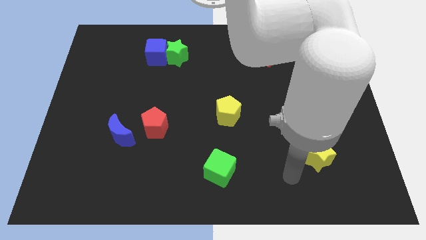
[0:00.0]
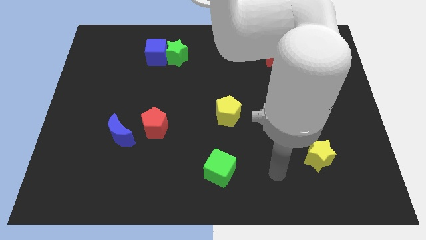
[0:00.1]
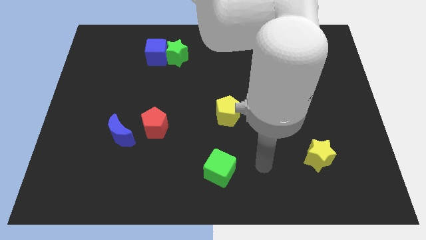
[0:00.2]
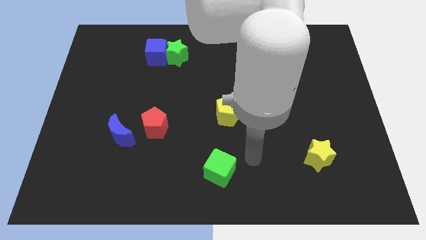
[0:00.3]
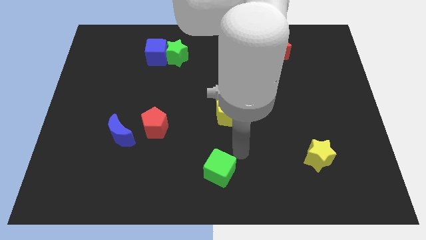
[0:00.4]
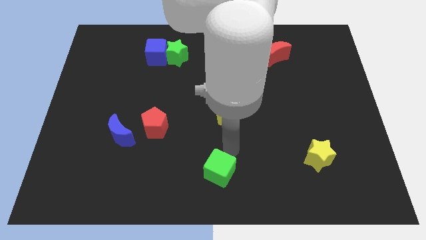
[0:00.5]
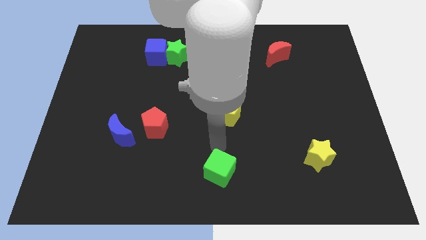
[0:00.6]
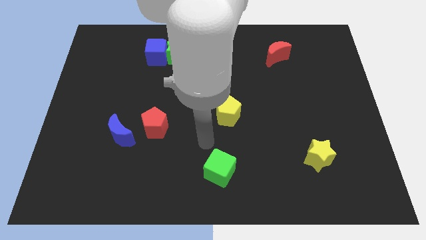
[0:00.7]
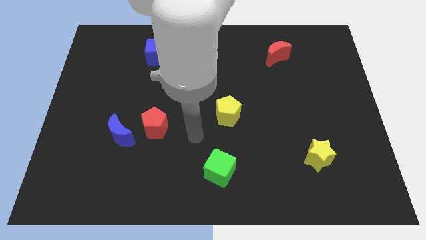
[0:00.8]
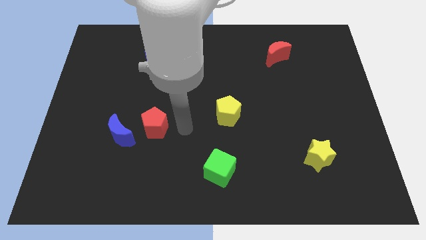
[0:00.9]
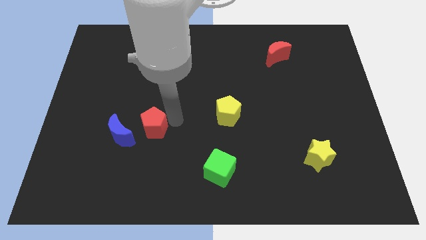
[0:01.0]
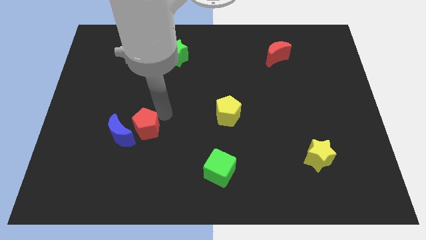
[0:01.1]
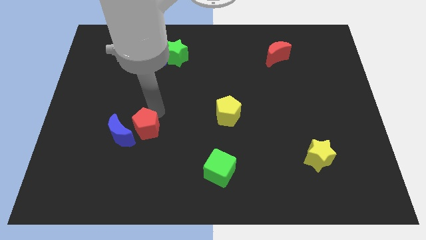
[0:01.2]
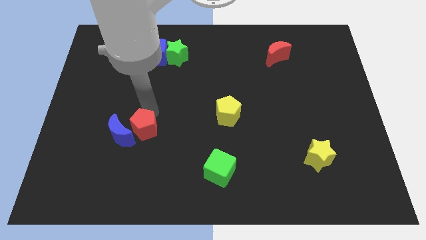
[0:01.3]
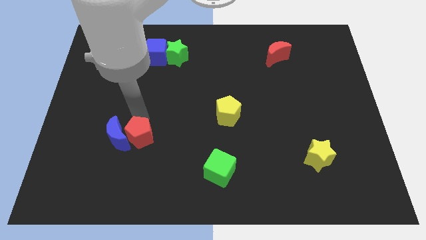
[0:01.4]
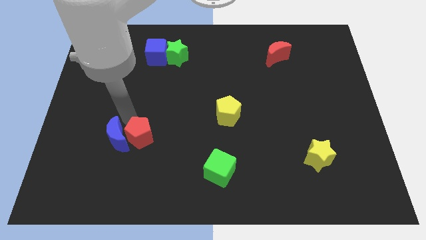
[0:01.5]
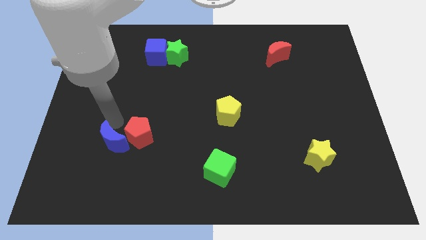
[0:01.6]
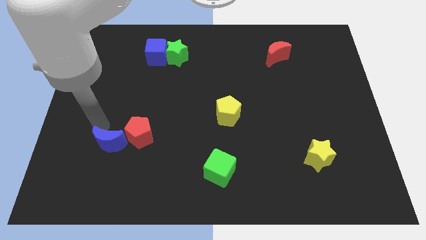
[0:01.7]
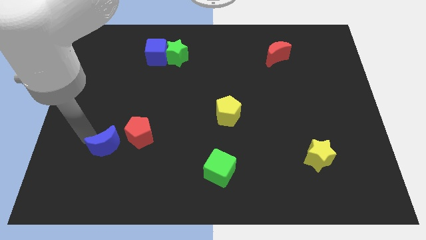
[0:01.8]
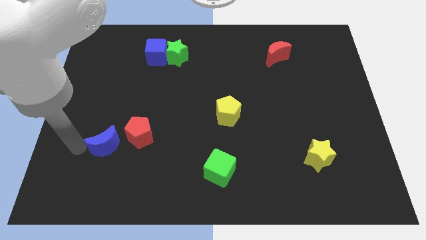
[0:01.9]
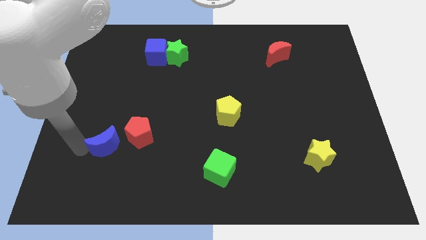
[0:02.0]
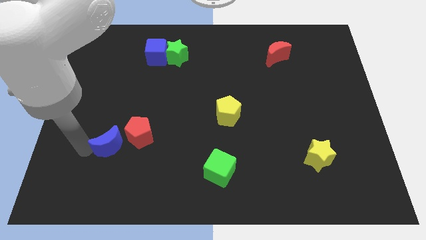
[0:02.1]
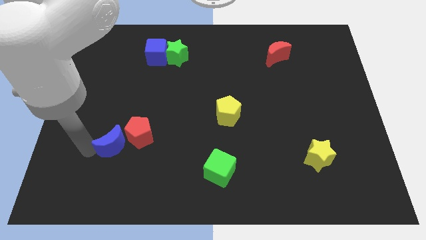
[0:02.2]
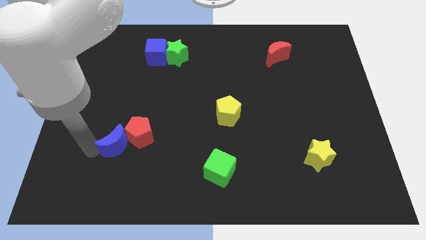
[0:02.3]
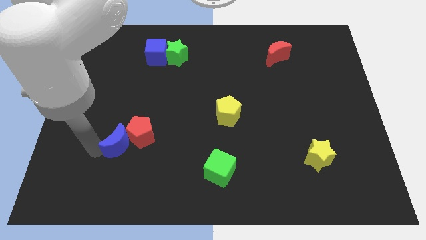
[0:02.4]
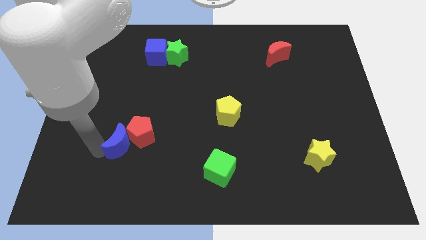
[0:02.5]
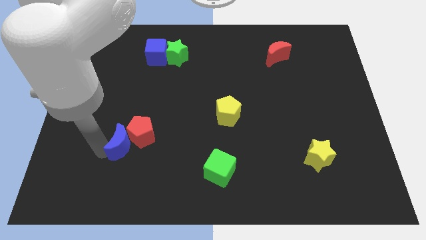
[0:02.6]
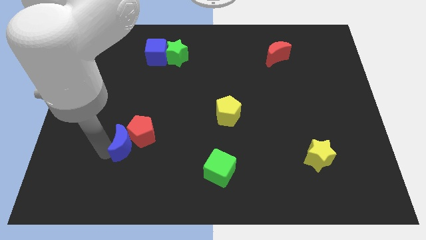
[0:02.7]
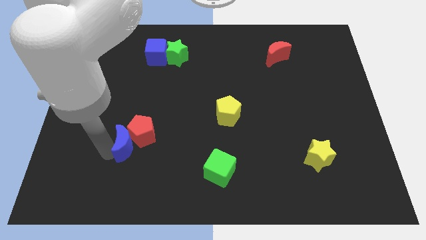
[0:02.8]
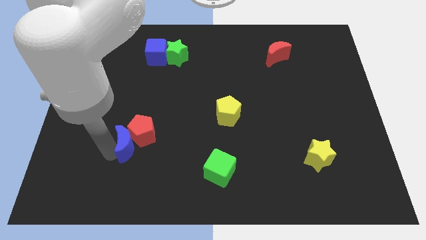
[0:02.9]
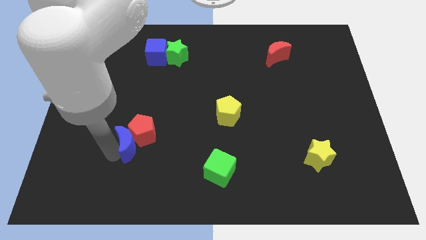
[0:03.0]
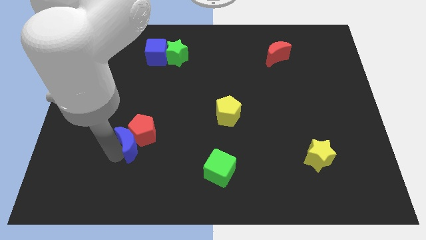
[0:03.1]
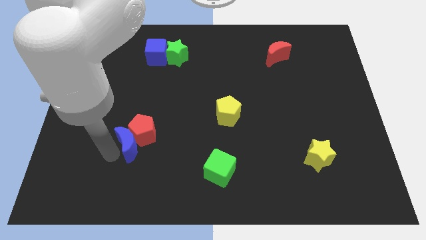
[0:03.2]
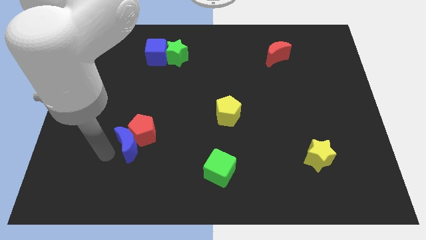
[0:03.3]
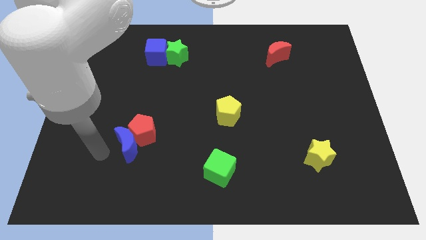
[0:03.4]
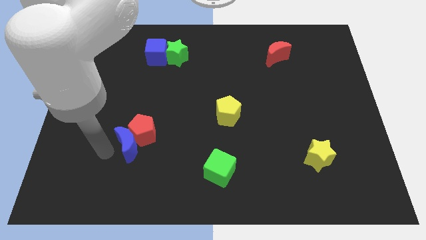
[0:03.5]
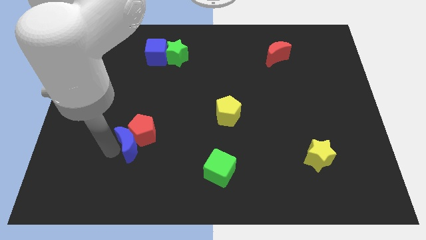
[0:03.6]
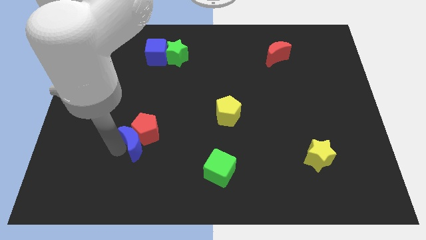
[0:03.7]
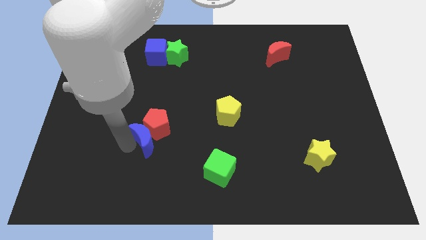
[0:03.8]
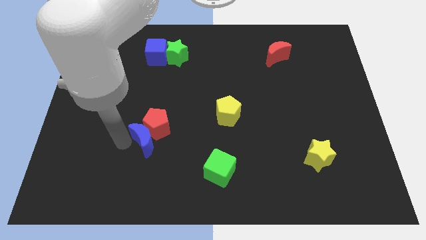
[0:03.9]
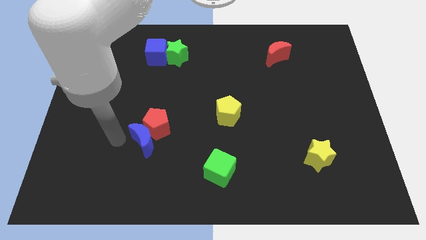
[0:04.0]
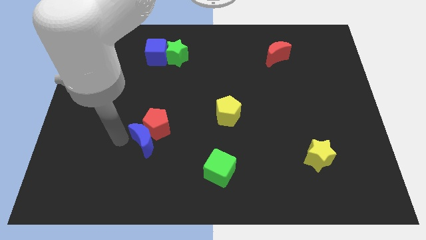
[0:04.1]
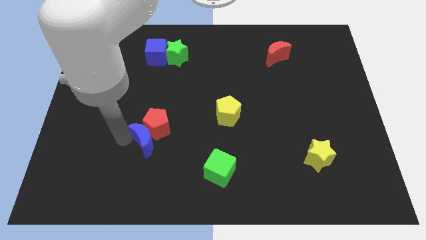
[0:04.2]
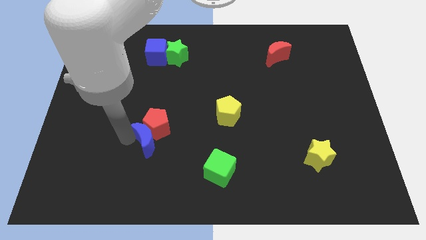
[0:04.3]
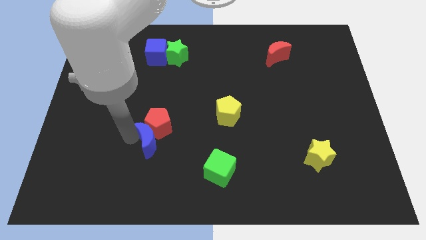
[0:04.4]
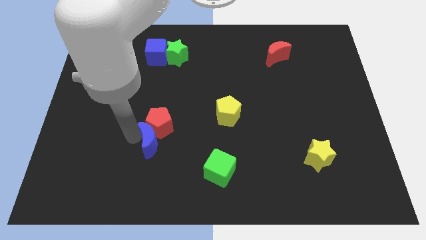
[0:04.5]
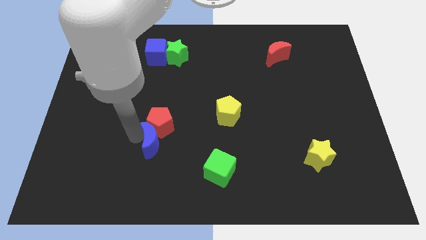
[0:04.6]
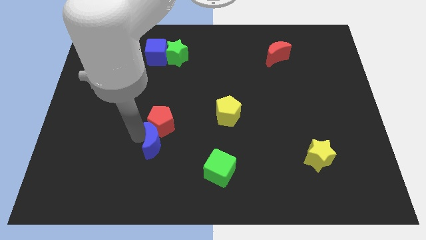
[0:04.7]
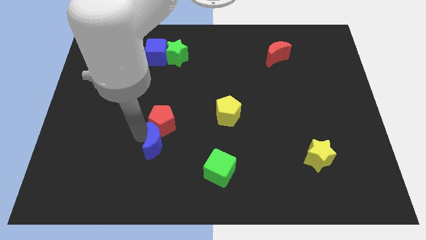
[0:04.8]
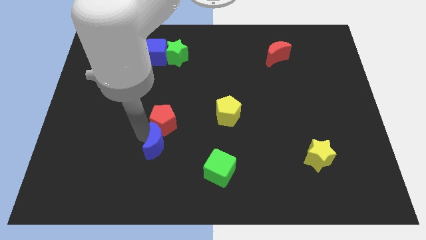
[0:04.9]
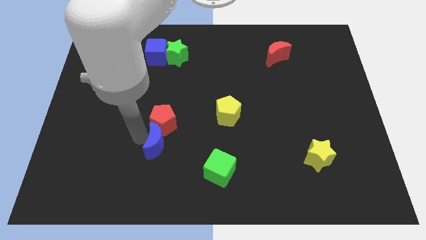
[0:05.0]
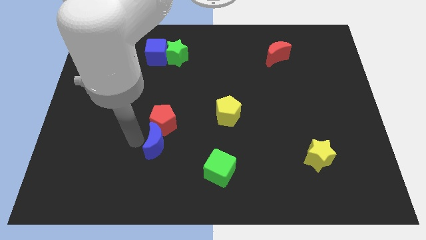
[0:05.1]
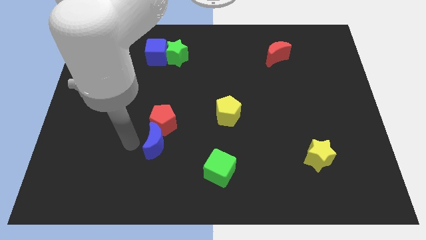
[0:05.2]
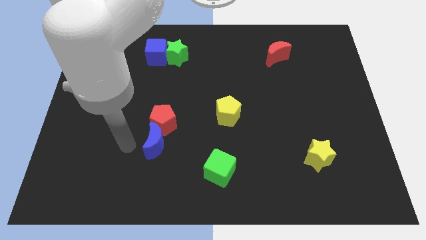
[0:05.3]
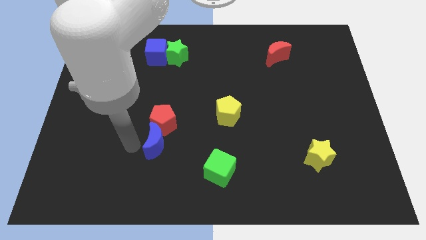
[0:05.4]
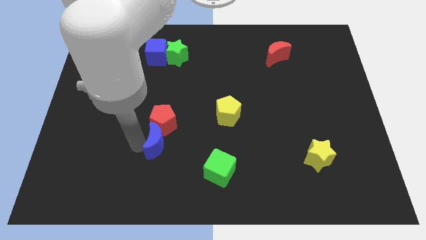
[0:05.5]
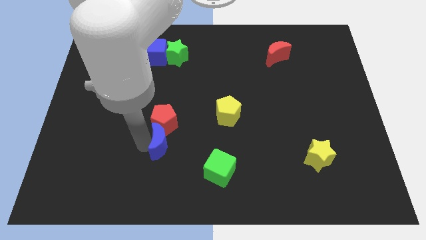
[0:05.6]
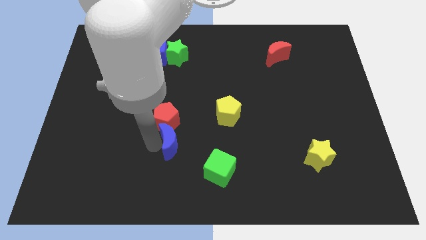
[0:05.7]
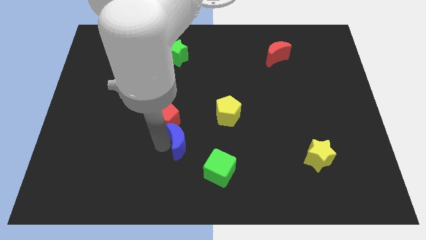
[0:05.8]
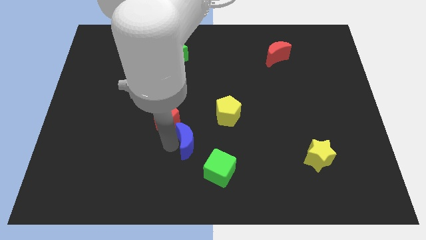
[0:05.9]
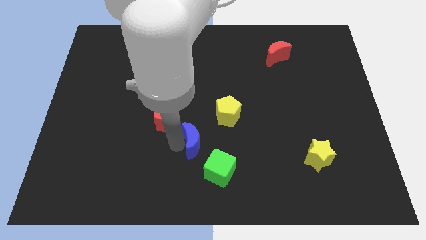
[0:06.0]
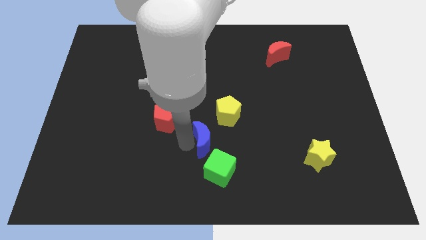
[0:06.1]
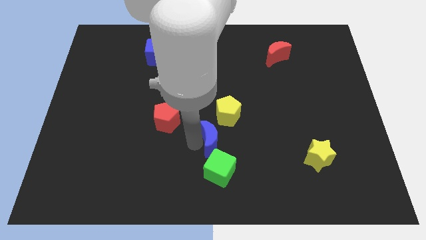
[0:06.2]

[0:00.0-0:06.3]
move the blue moon right

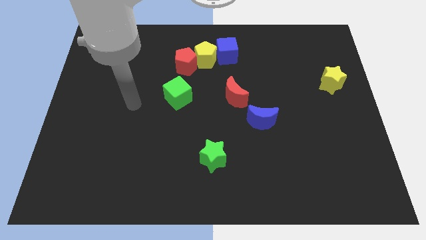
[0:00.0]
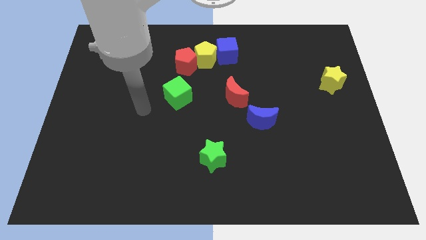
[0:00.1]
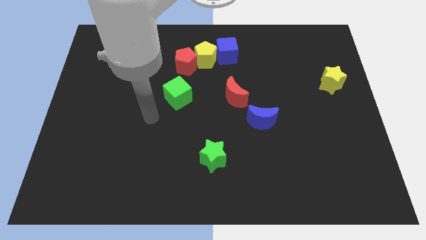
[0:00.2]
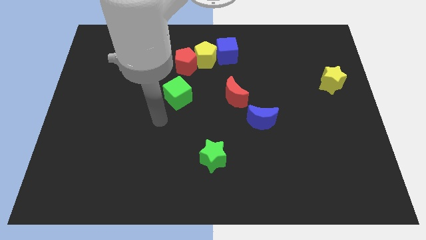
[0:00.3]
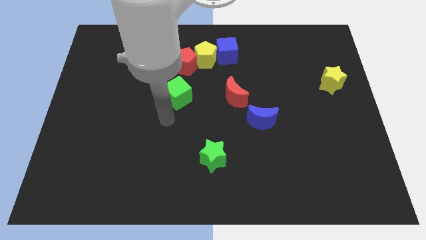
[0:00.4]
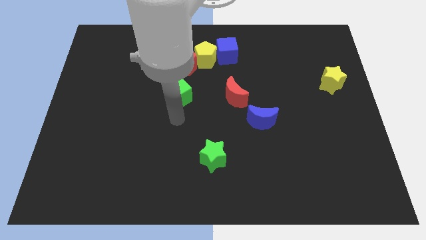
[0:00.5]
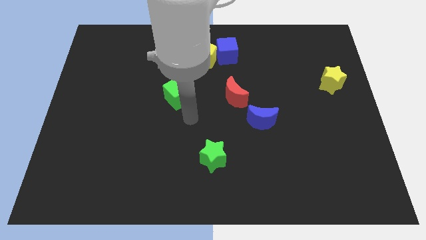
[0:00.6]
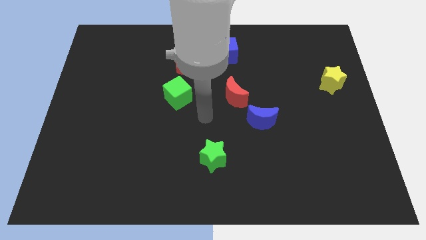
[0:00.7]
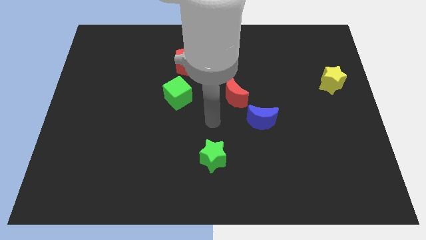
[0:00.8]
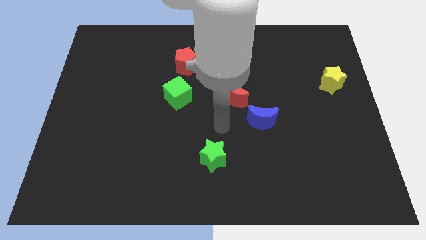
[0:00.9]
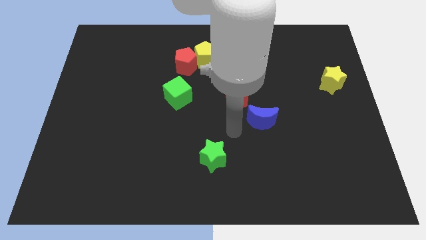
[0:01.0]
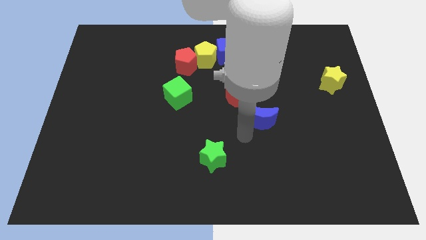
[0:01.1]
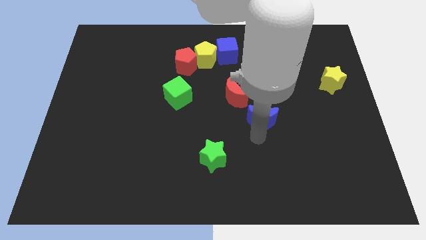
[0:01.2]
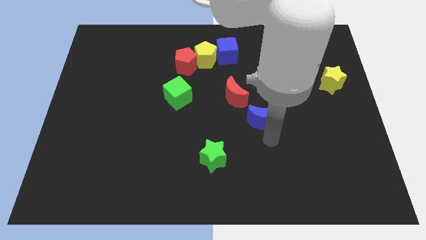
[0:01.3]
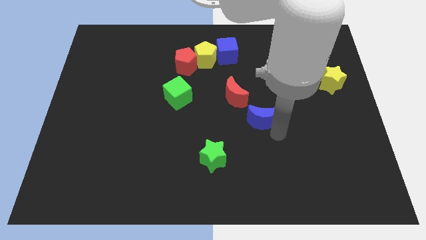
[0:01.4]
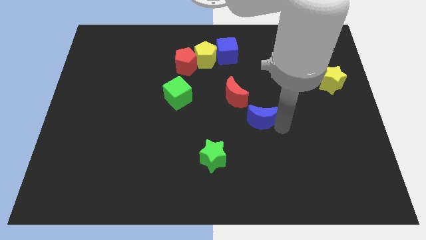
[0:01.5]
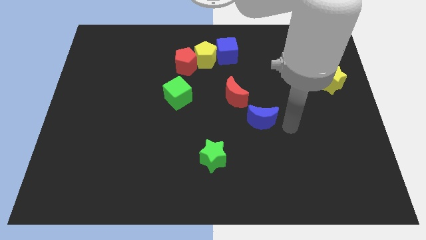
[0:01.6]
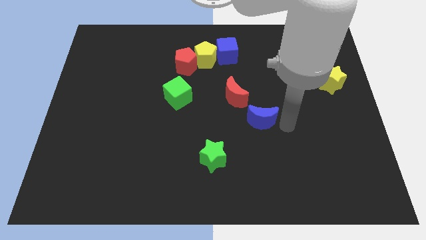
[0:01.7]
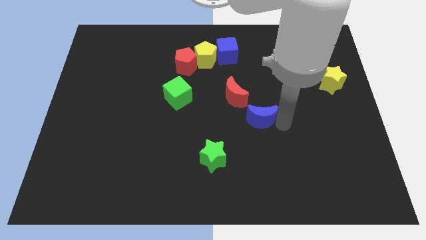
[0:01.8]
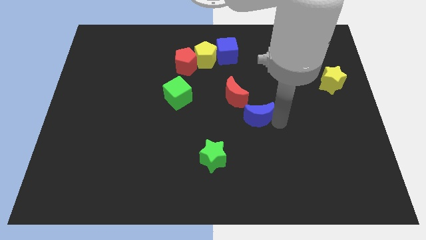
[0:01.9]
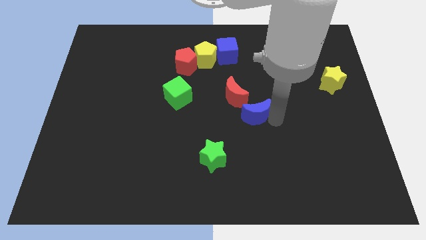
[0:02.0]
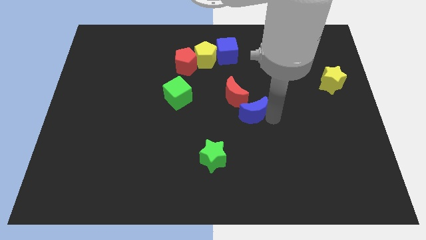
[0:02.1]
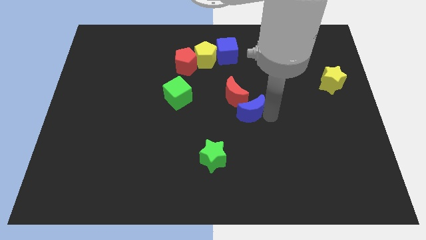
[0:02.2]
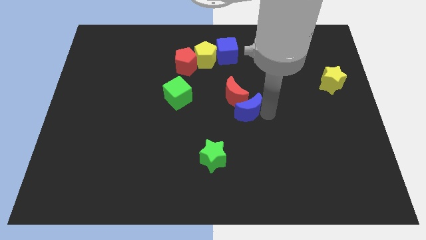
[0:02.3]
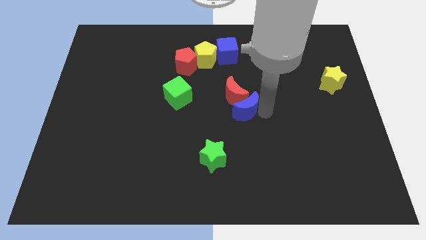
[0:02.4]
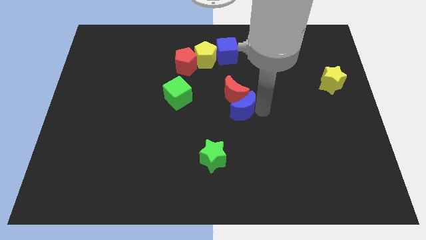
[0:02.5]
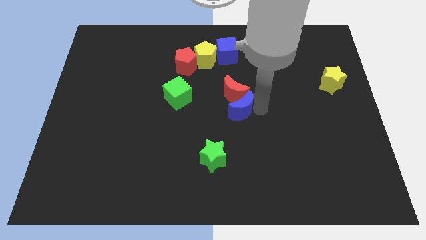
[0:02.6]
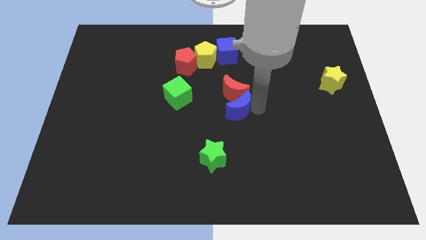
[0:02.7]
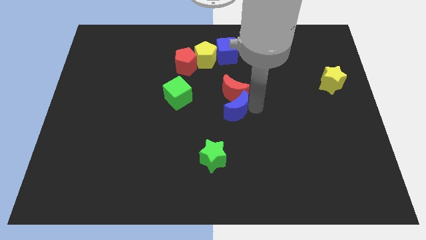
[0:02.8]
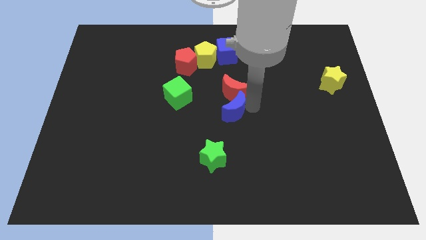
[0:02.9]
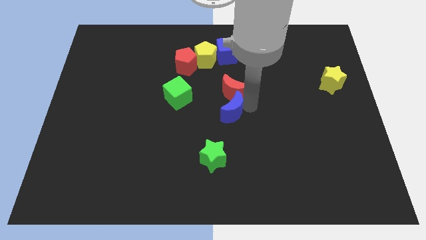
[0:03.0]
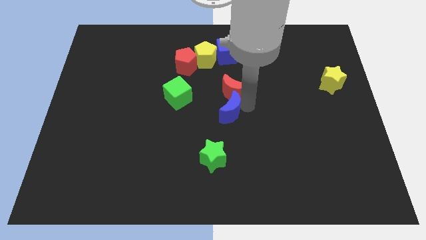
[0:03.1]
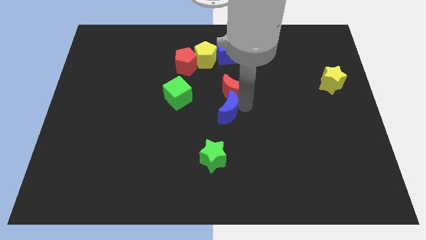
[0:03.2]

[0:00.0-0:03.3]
push the blue moon up and to the left diagonally a little
